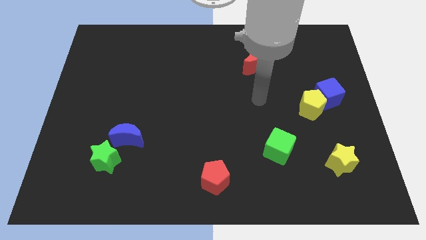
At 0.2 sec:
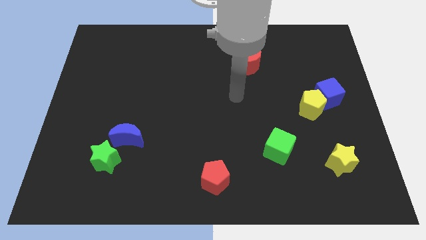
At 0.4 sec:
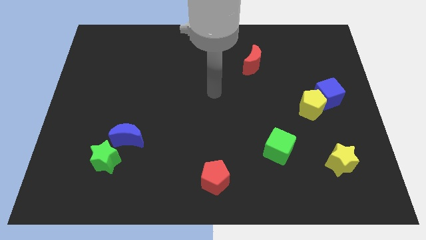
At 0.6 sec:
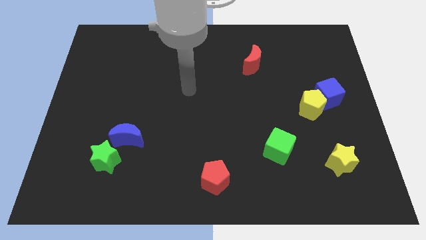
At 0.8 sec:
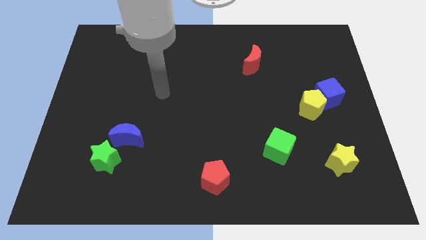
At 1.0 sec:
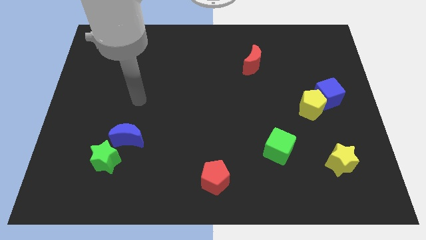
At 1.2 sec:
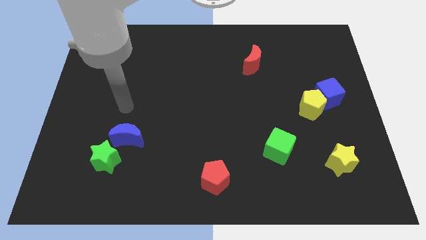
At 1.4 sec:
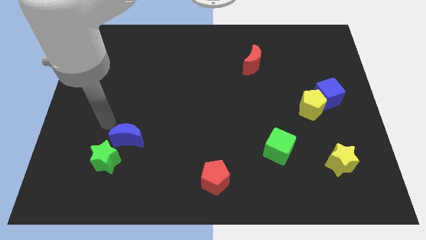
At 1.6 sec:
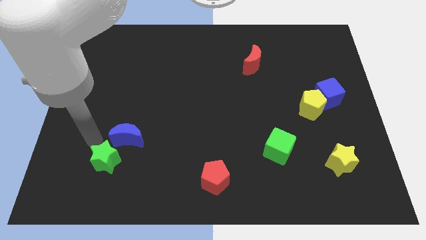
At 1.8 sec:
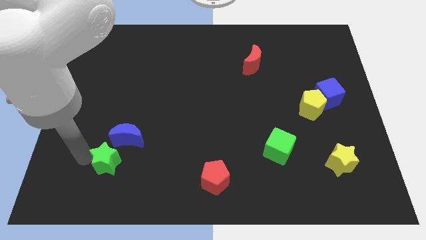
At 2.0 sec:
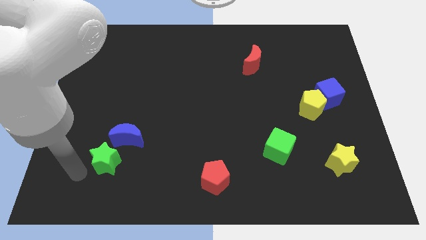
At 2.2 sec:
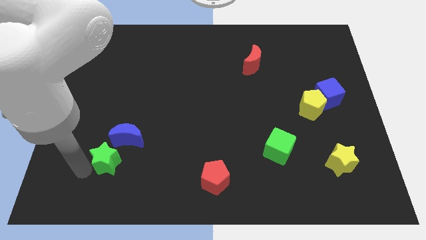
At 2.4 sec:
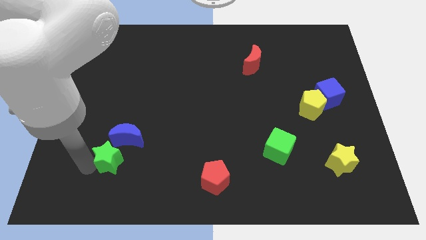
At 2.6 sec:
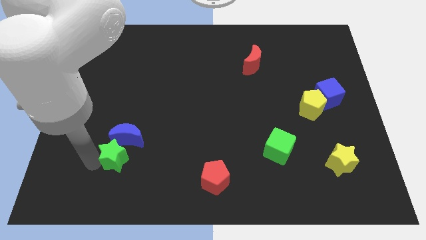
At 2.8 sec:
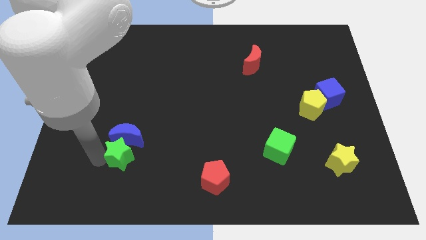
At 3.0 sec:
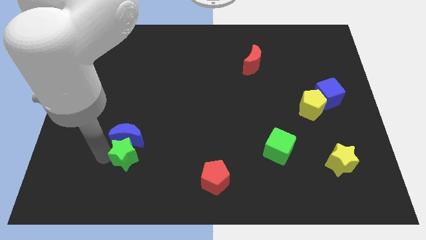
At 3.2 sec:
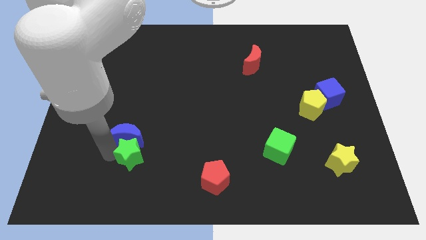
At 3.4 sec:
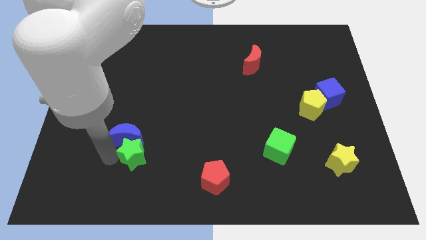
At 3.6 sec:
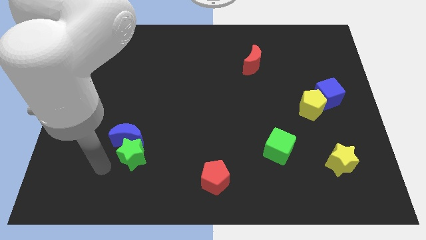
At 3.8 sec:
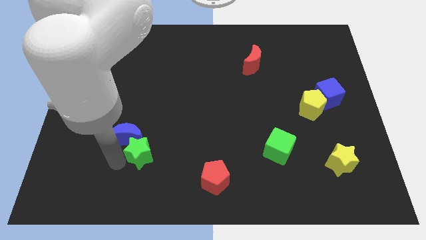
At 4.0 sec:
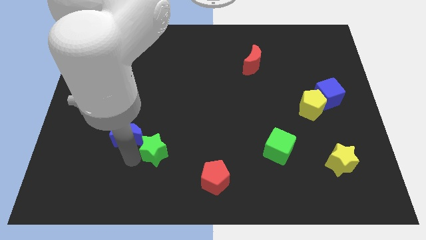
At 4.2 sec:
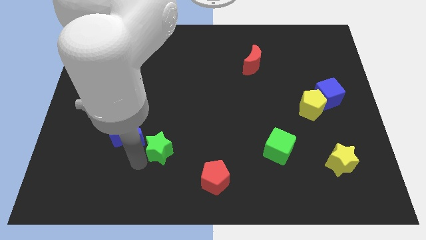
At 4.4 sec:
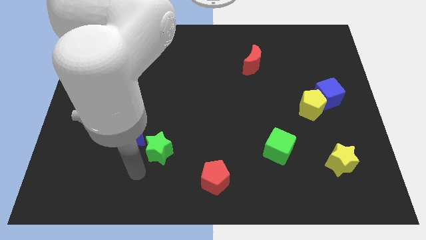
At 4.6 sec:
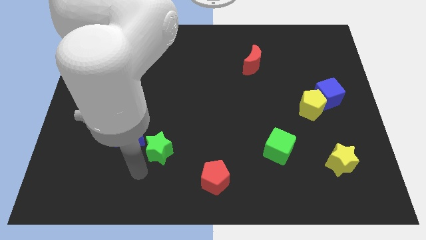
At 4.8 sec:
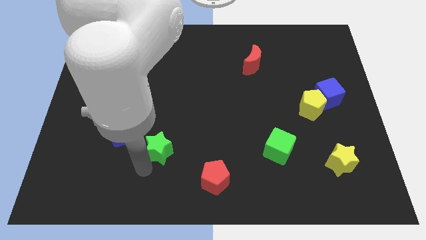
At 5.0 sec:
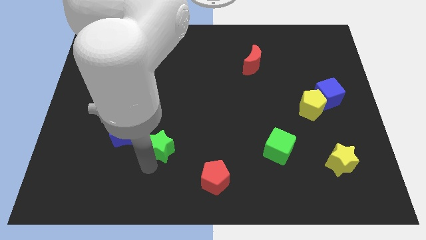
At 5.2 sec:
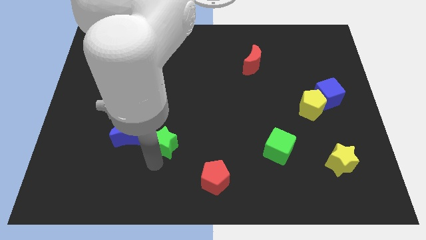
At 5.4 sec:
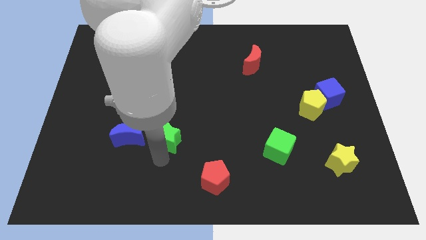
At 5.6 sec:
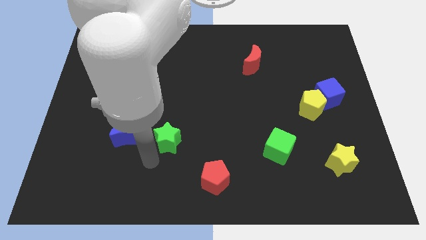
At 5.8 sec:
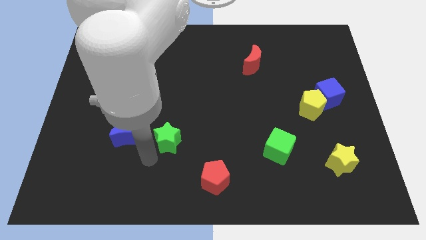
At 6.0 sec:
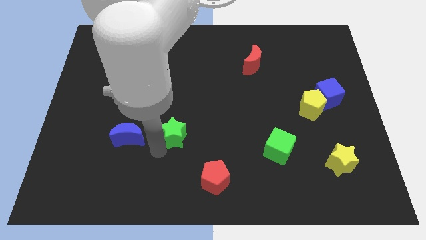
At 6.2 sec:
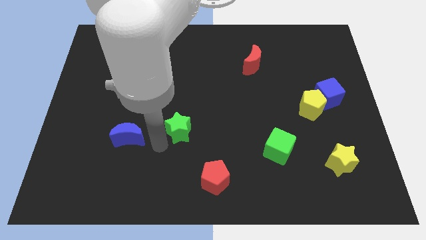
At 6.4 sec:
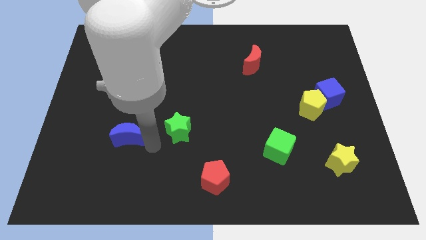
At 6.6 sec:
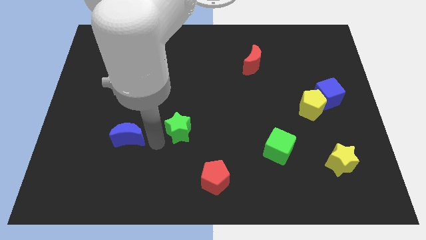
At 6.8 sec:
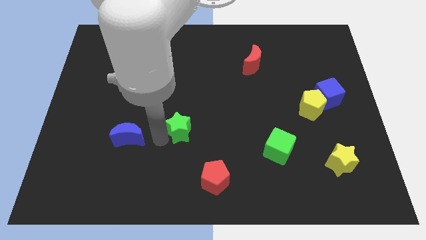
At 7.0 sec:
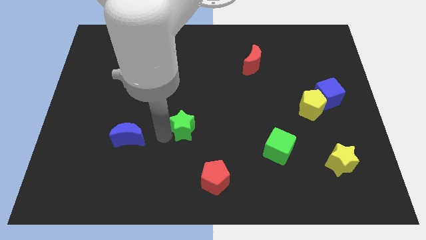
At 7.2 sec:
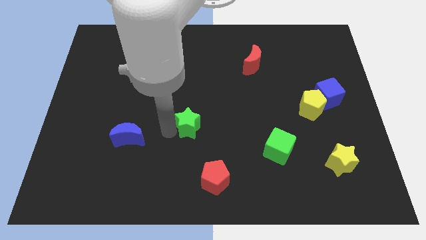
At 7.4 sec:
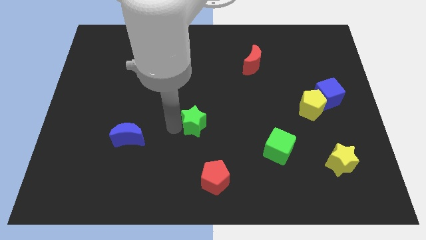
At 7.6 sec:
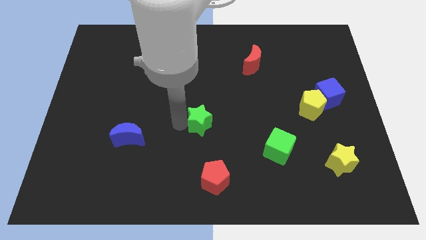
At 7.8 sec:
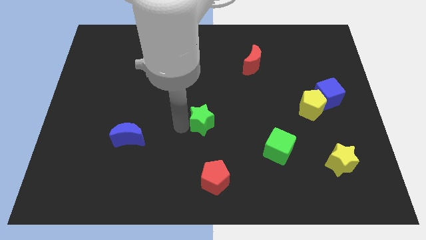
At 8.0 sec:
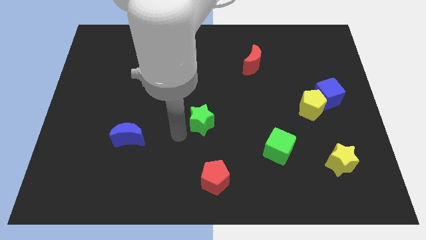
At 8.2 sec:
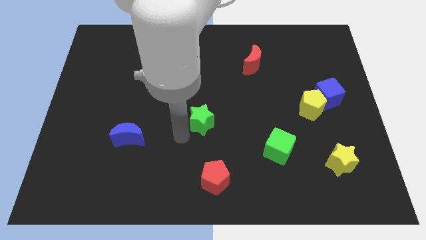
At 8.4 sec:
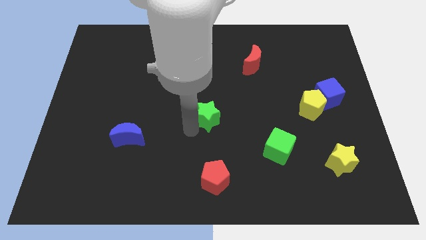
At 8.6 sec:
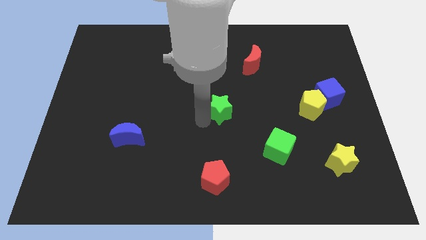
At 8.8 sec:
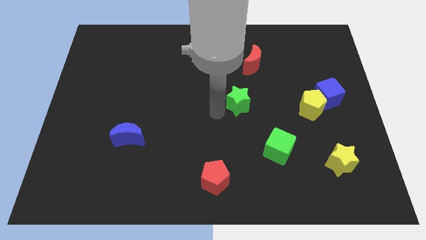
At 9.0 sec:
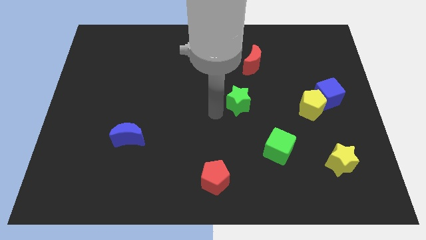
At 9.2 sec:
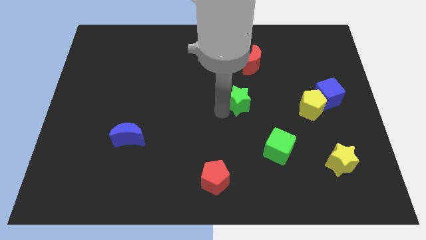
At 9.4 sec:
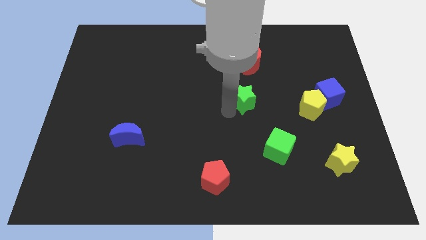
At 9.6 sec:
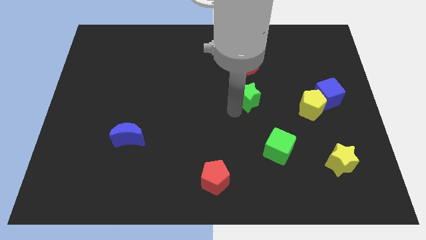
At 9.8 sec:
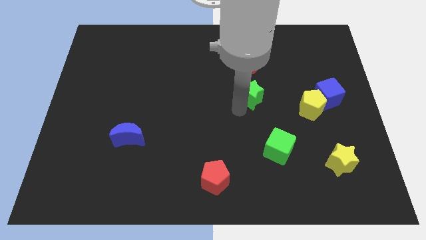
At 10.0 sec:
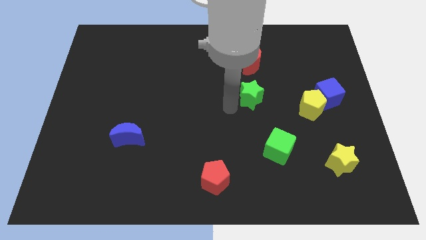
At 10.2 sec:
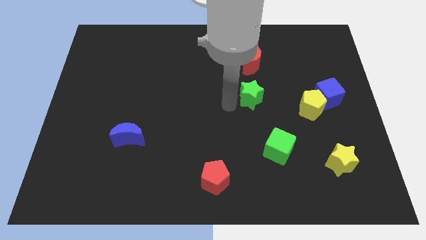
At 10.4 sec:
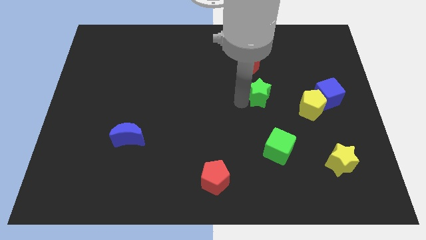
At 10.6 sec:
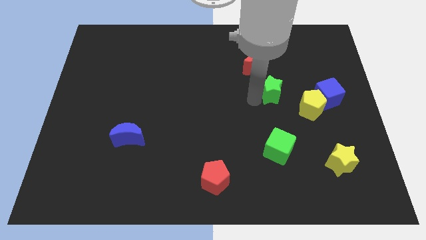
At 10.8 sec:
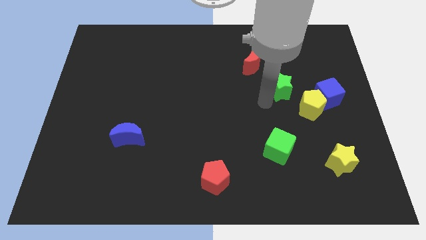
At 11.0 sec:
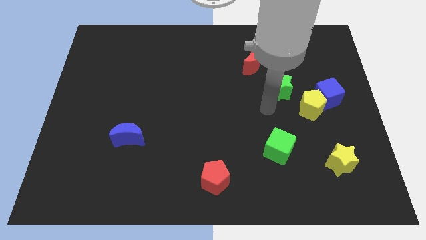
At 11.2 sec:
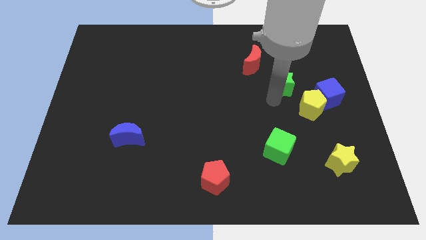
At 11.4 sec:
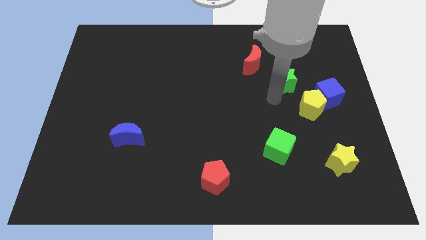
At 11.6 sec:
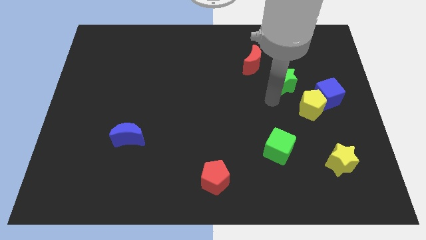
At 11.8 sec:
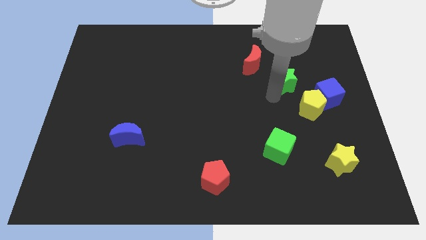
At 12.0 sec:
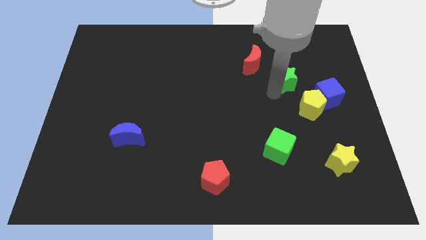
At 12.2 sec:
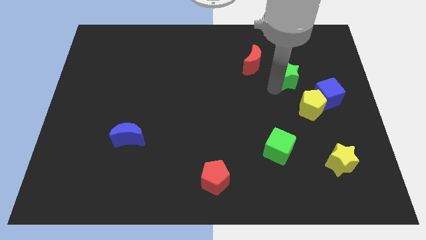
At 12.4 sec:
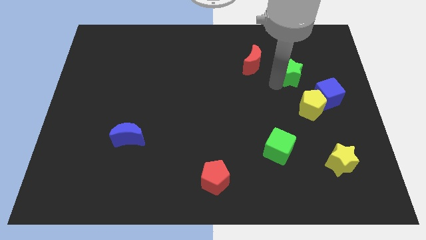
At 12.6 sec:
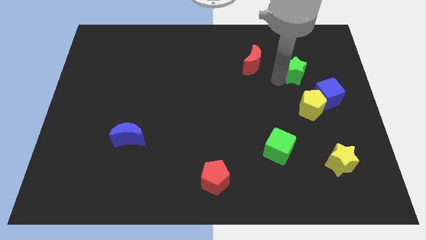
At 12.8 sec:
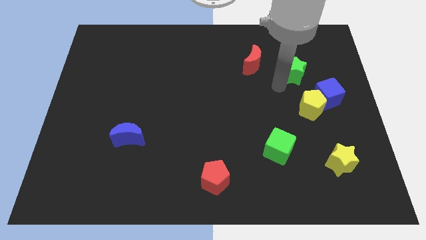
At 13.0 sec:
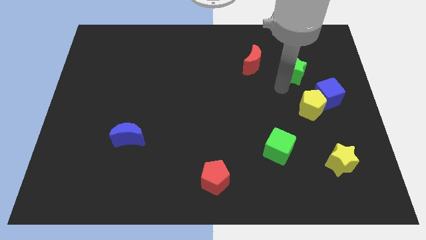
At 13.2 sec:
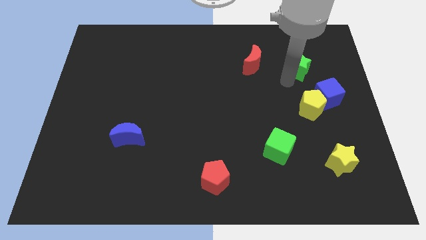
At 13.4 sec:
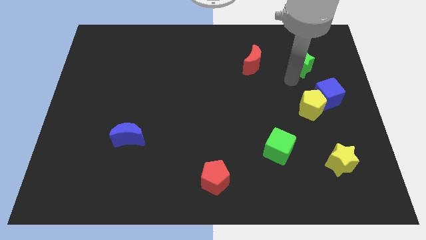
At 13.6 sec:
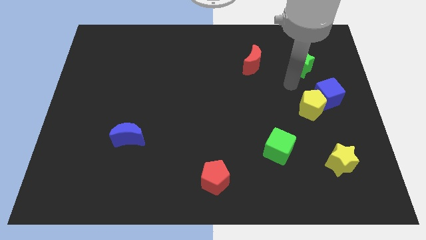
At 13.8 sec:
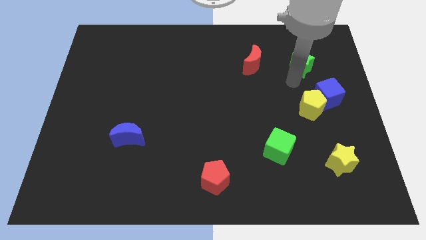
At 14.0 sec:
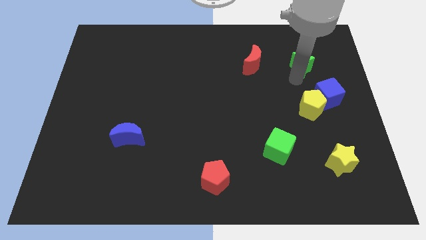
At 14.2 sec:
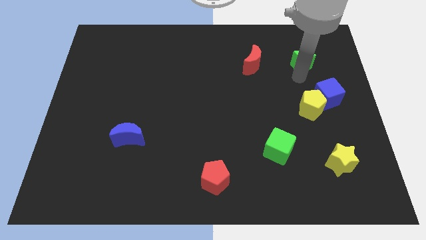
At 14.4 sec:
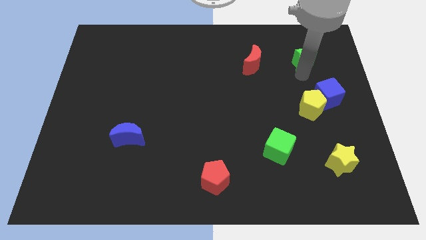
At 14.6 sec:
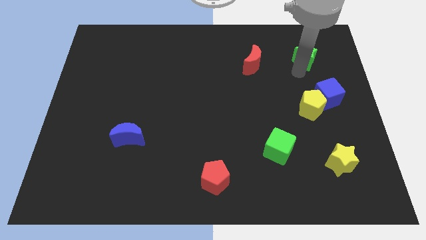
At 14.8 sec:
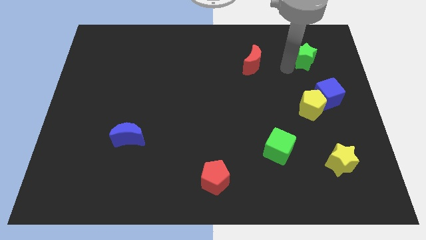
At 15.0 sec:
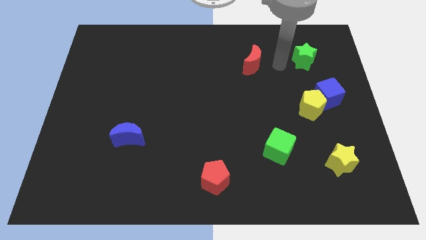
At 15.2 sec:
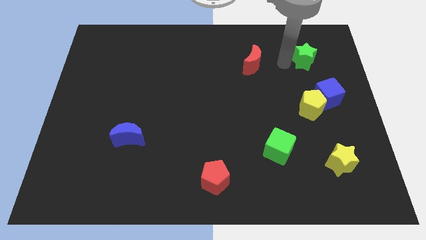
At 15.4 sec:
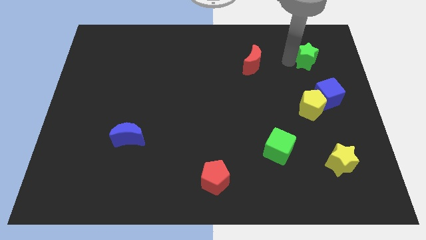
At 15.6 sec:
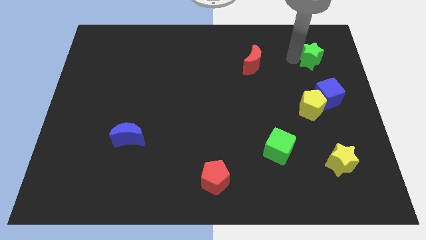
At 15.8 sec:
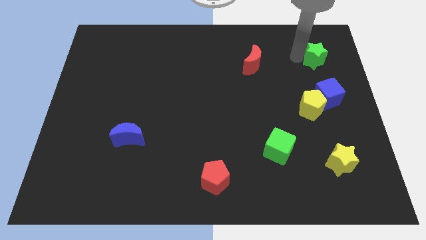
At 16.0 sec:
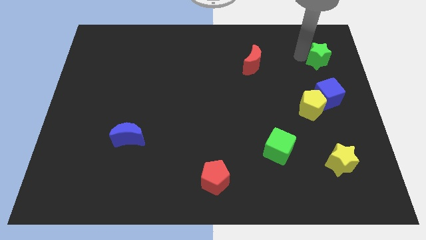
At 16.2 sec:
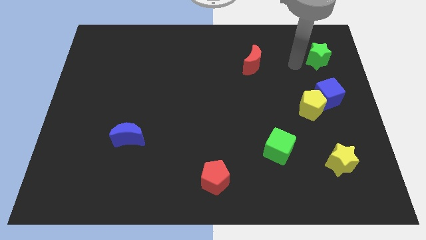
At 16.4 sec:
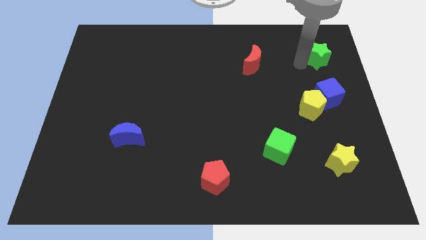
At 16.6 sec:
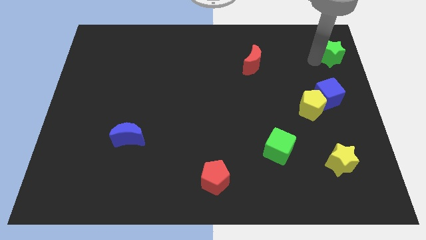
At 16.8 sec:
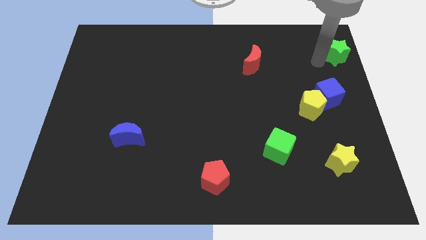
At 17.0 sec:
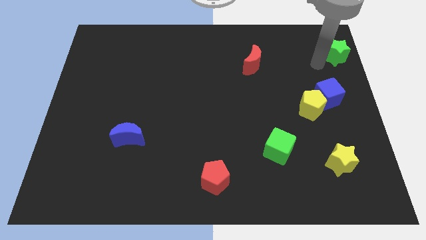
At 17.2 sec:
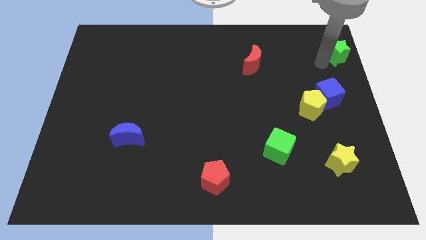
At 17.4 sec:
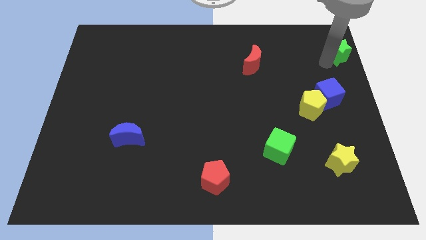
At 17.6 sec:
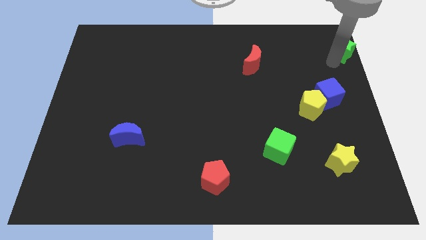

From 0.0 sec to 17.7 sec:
move the green star to the top right
